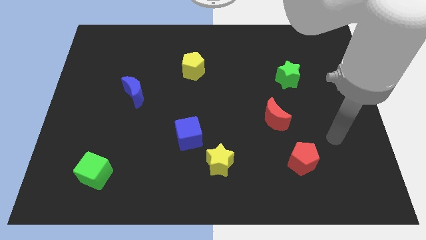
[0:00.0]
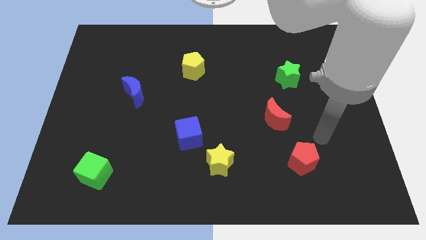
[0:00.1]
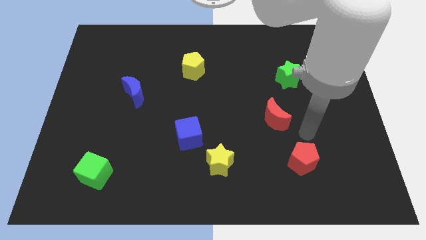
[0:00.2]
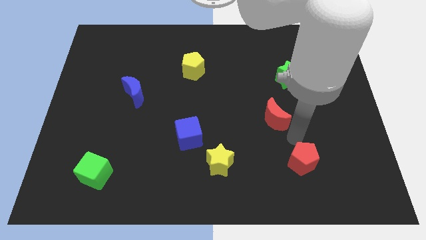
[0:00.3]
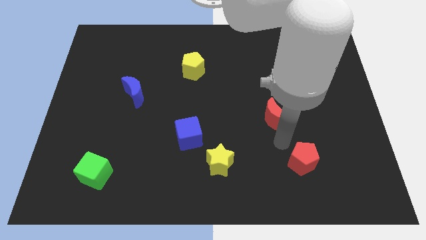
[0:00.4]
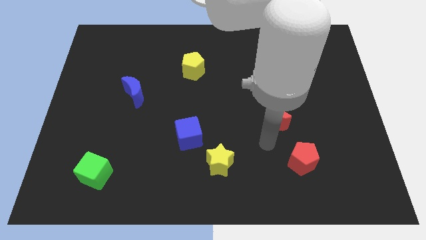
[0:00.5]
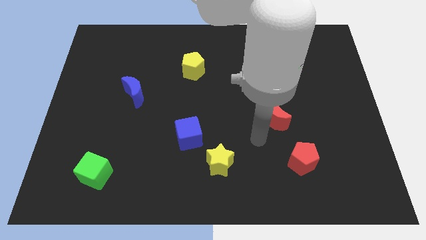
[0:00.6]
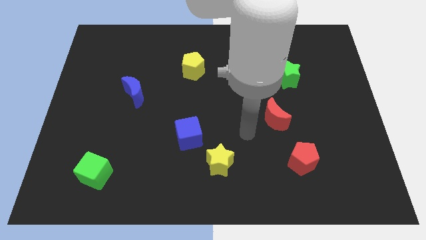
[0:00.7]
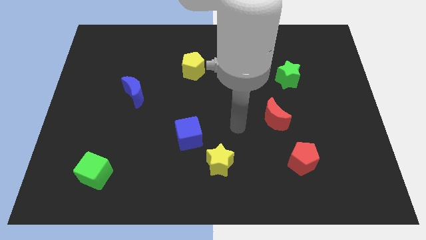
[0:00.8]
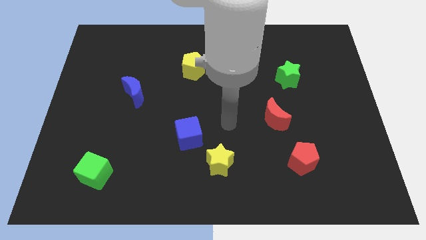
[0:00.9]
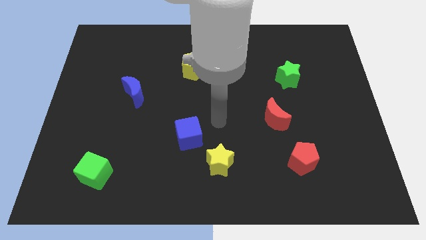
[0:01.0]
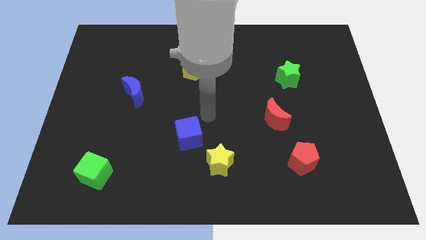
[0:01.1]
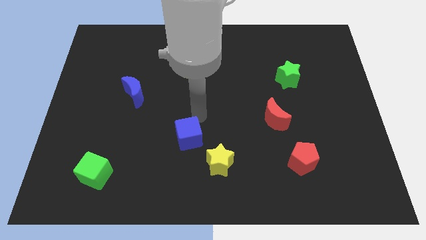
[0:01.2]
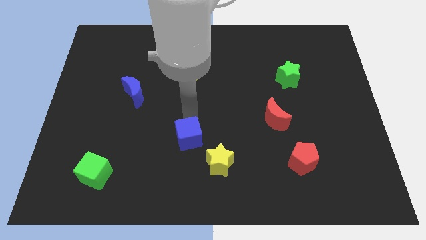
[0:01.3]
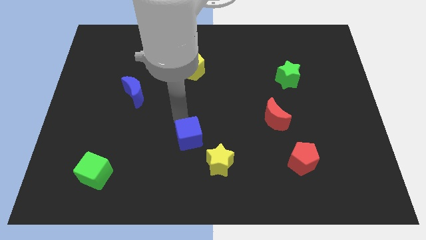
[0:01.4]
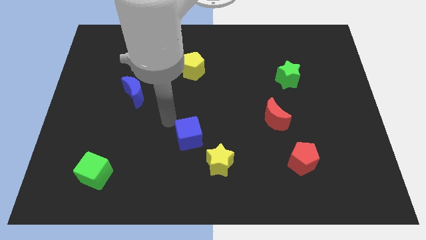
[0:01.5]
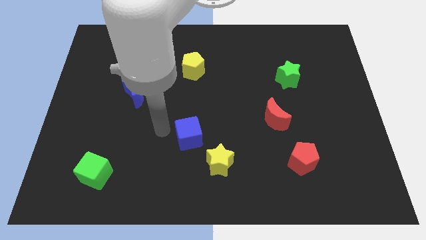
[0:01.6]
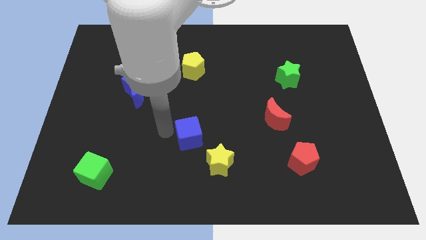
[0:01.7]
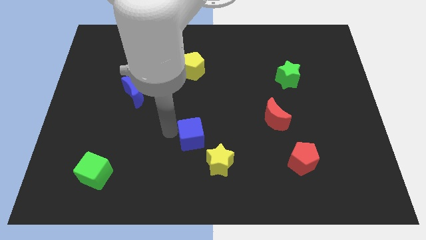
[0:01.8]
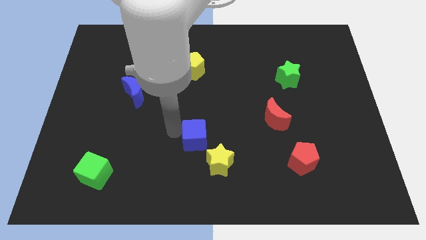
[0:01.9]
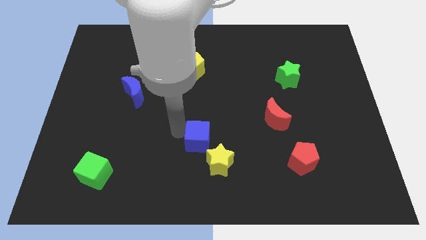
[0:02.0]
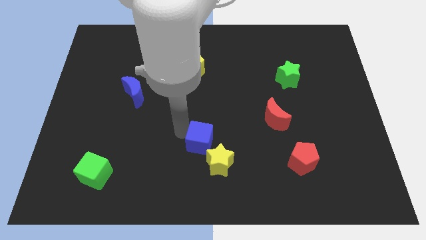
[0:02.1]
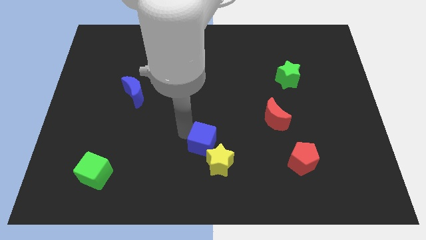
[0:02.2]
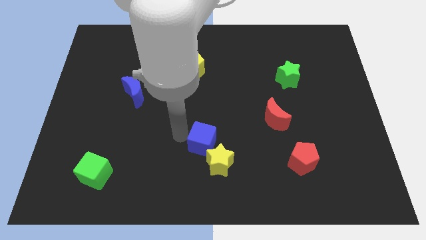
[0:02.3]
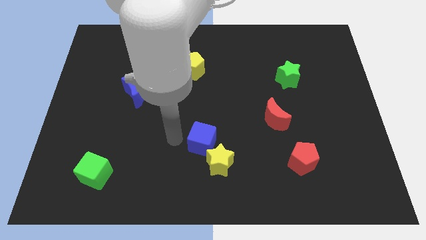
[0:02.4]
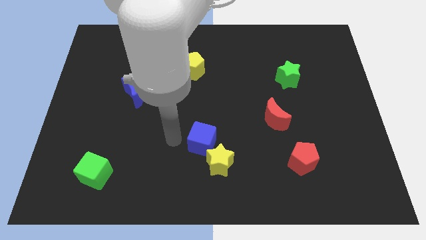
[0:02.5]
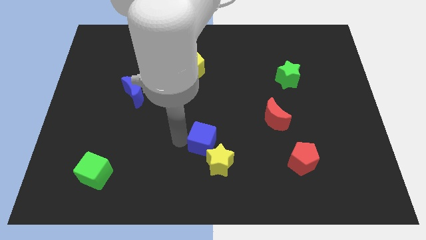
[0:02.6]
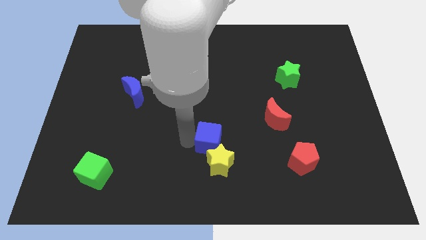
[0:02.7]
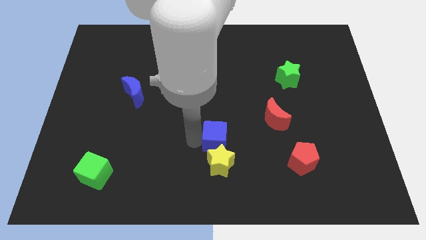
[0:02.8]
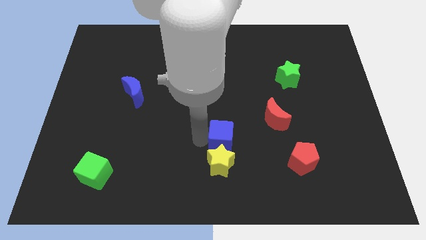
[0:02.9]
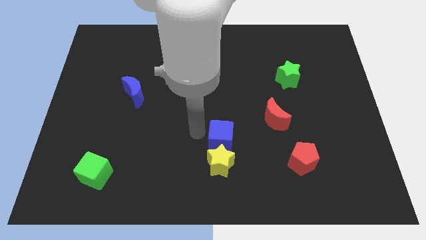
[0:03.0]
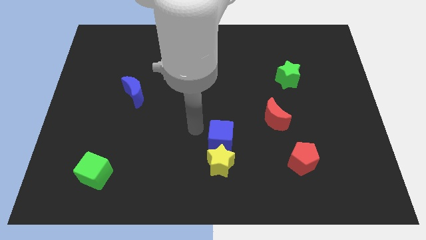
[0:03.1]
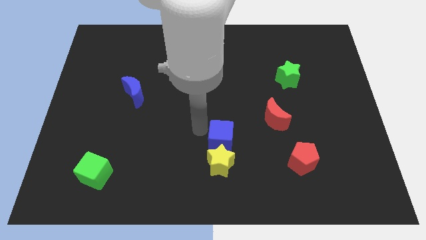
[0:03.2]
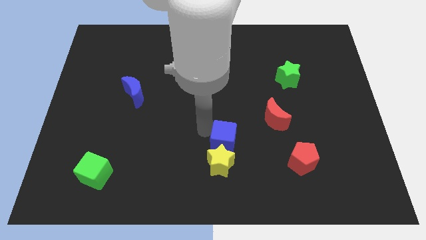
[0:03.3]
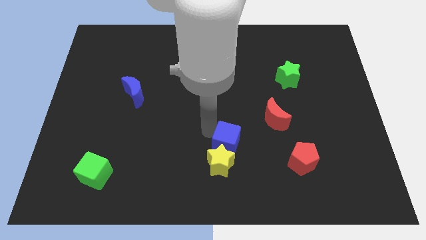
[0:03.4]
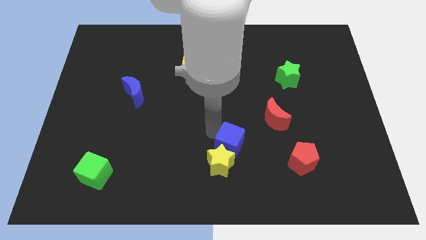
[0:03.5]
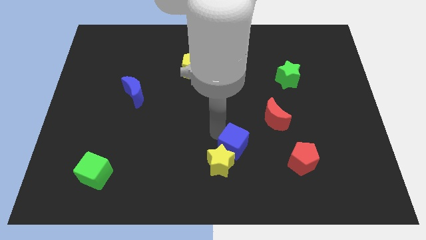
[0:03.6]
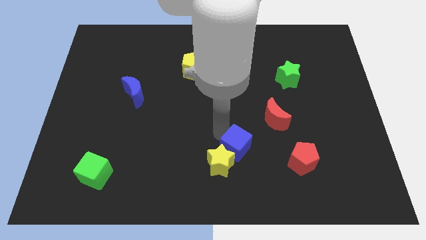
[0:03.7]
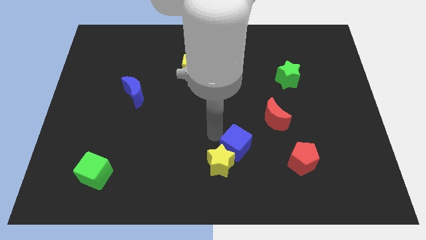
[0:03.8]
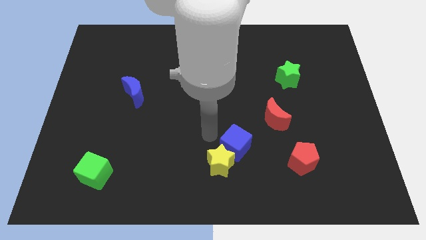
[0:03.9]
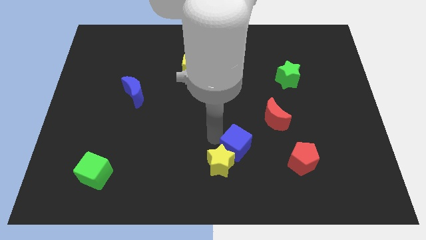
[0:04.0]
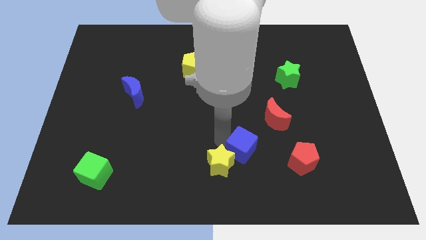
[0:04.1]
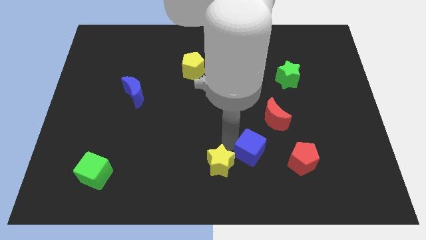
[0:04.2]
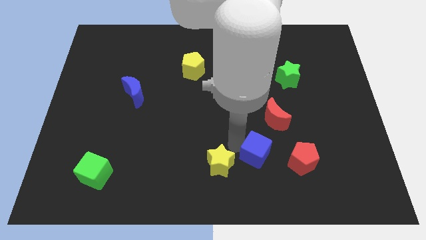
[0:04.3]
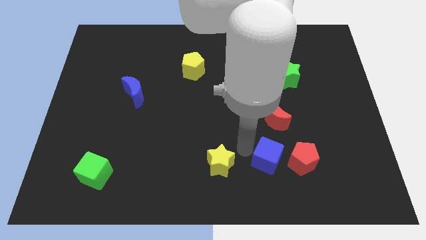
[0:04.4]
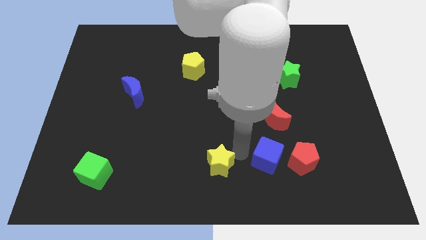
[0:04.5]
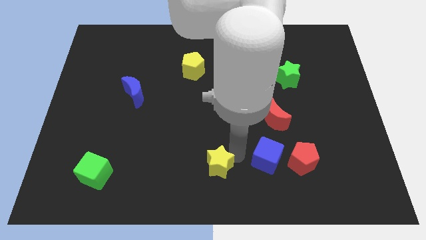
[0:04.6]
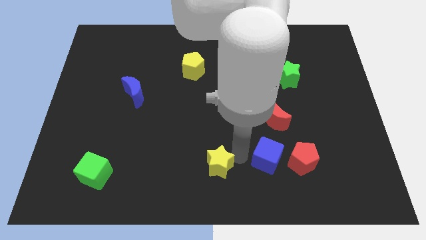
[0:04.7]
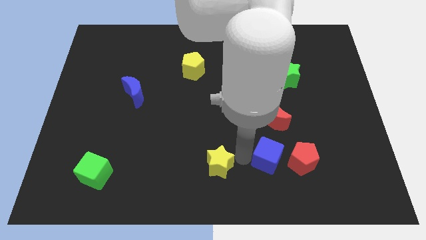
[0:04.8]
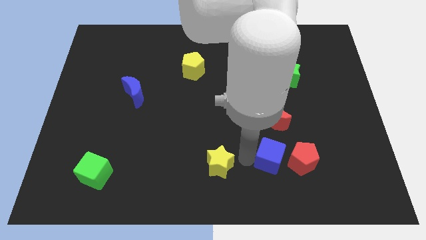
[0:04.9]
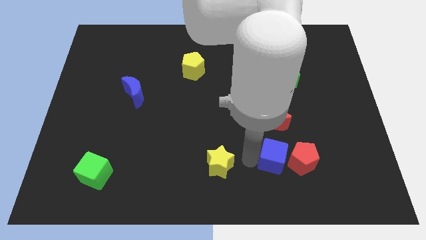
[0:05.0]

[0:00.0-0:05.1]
move the blue cube to the red pentagon

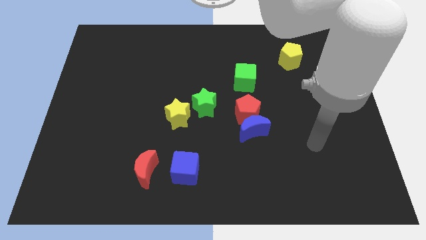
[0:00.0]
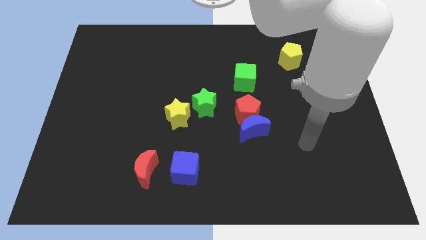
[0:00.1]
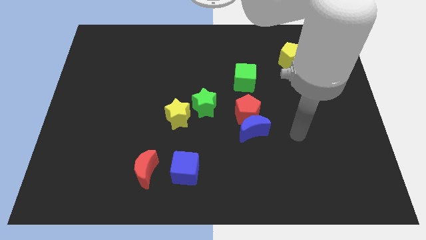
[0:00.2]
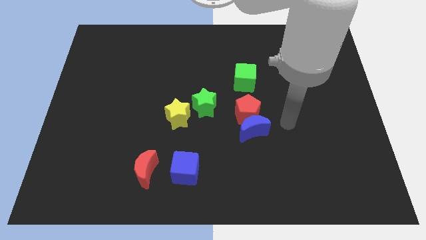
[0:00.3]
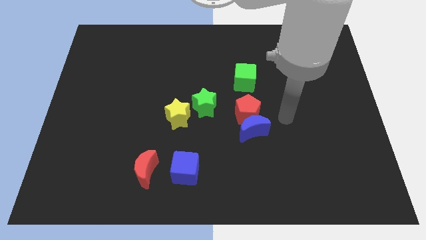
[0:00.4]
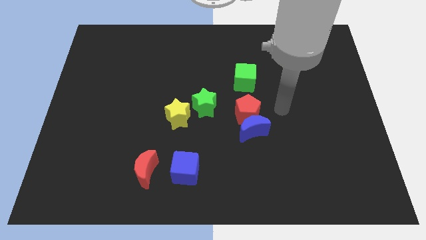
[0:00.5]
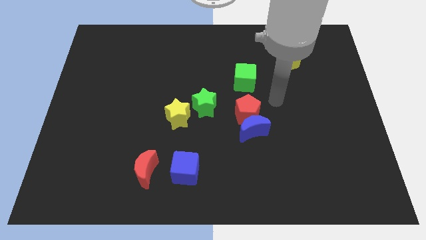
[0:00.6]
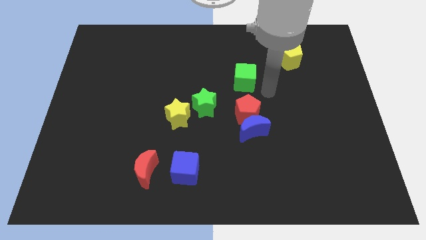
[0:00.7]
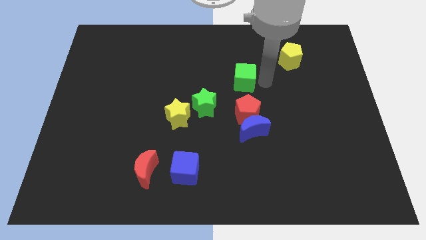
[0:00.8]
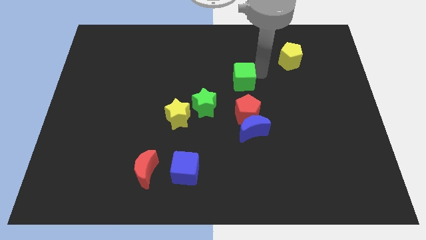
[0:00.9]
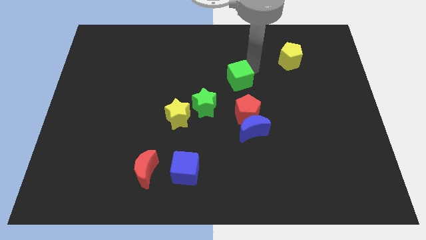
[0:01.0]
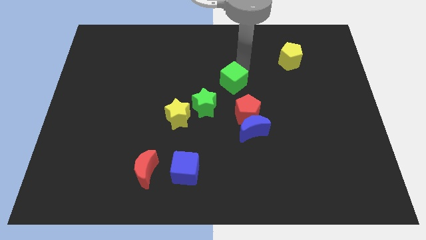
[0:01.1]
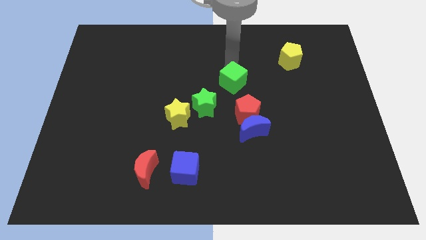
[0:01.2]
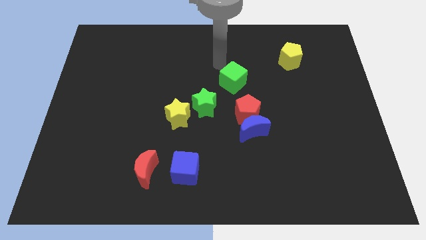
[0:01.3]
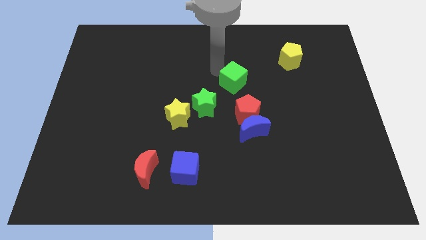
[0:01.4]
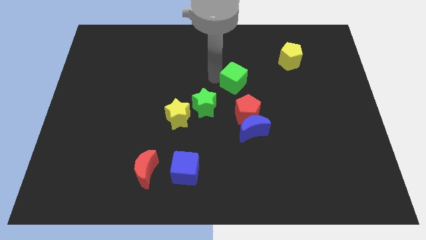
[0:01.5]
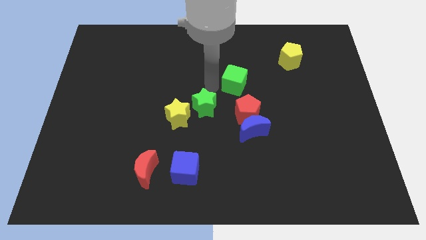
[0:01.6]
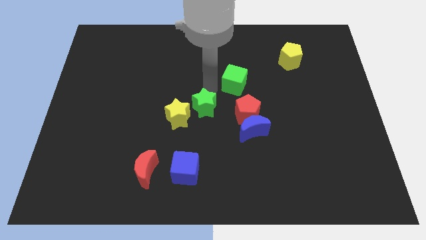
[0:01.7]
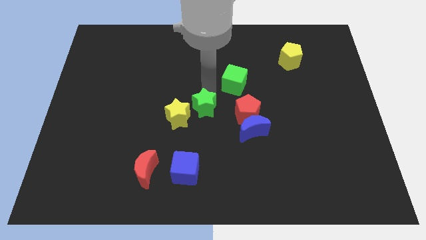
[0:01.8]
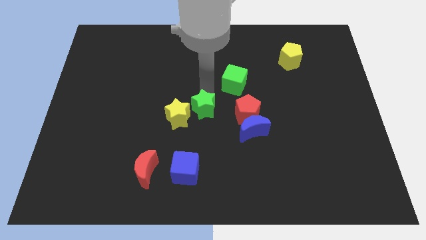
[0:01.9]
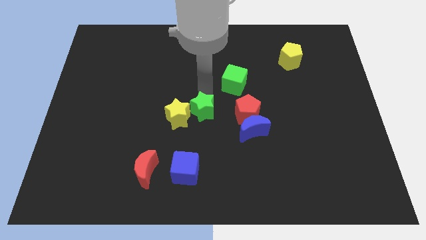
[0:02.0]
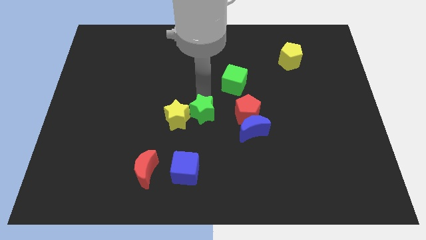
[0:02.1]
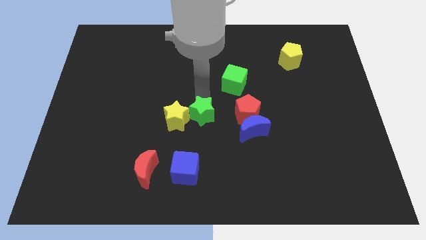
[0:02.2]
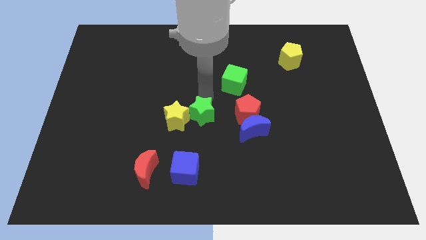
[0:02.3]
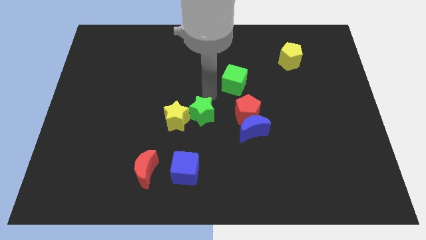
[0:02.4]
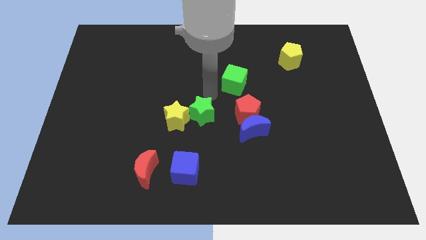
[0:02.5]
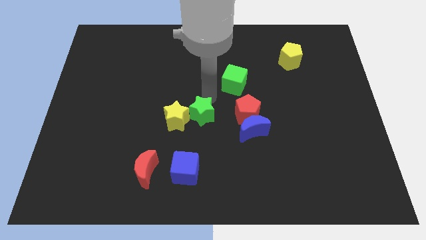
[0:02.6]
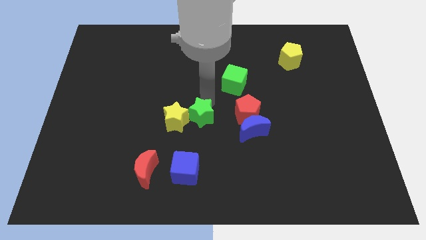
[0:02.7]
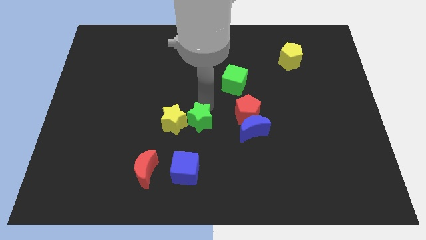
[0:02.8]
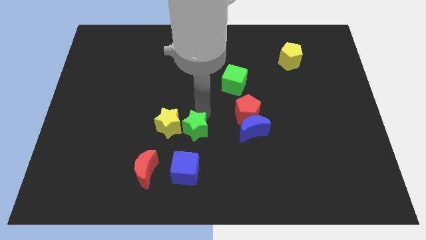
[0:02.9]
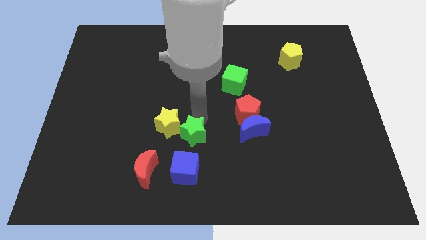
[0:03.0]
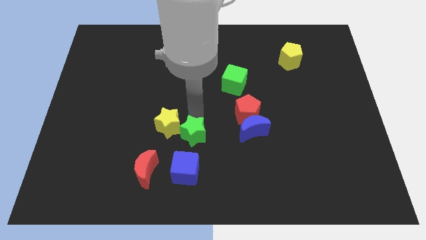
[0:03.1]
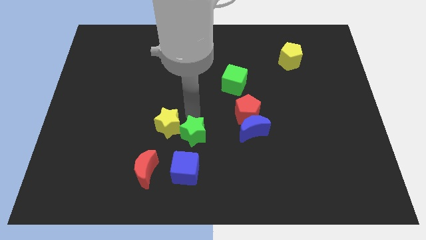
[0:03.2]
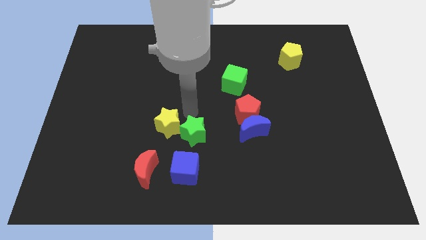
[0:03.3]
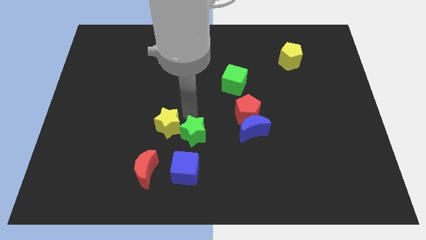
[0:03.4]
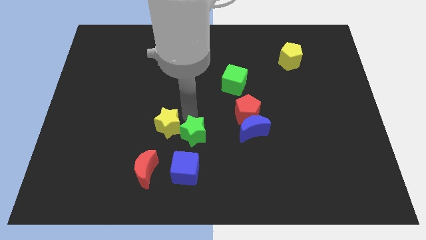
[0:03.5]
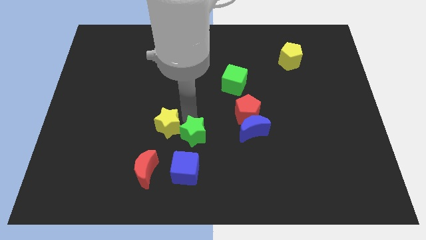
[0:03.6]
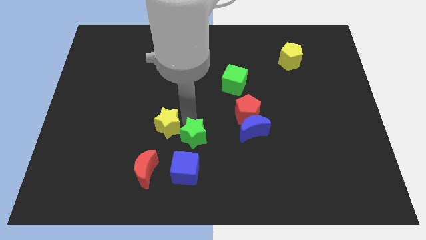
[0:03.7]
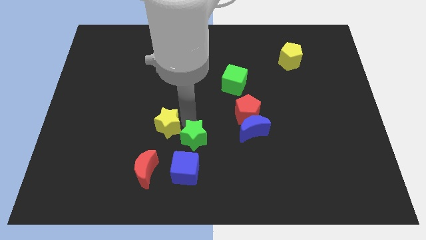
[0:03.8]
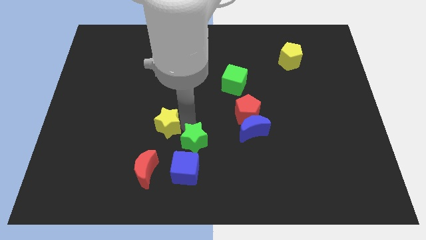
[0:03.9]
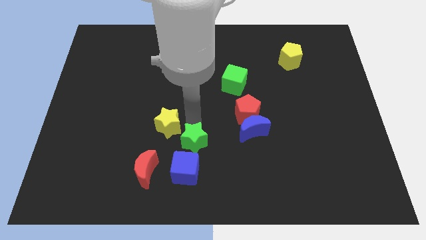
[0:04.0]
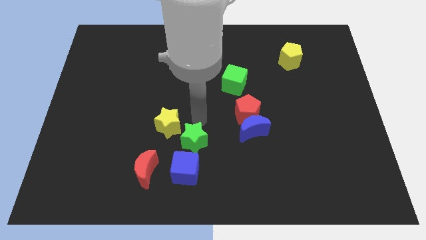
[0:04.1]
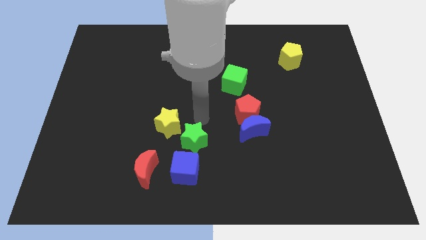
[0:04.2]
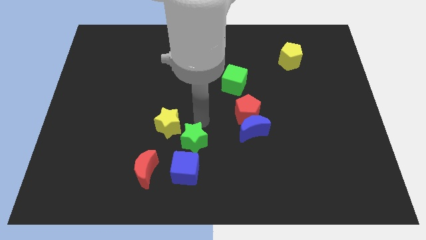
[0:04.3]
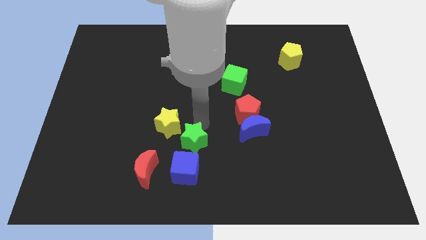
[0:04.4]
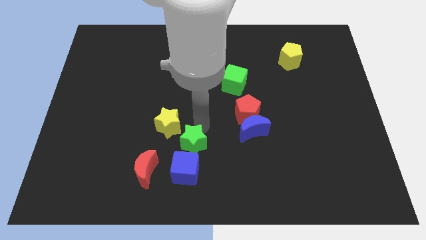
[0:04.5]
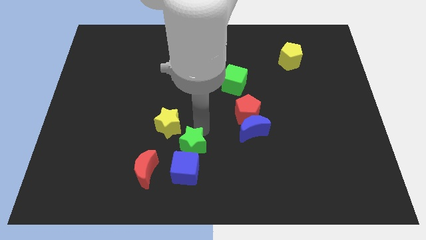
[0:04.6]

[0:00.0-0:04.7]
slide the green star towards the blue cube
